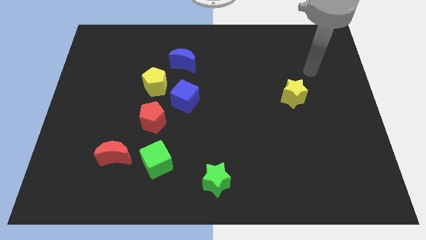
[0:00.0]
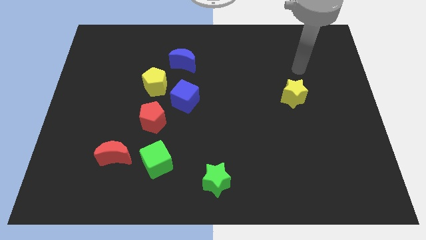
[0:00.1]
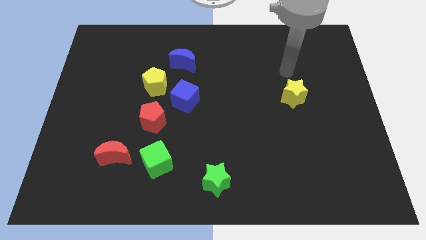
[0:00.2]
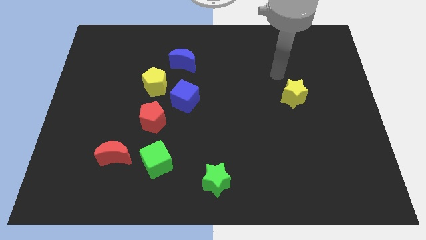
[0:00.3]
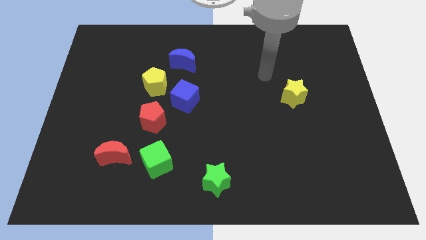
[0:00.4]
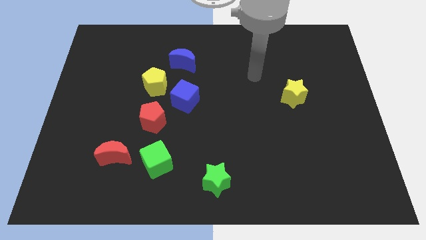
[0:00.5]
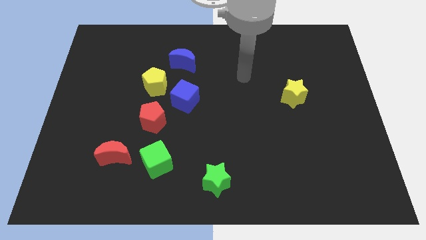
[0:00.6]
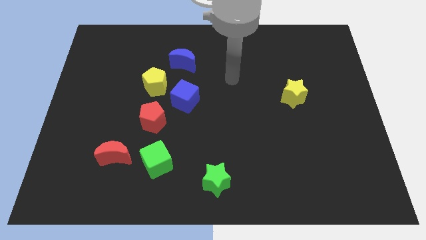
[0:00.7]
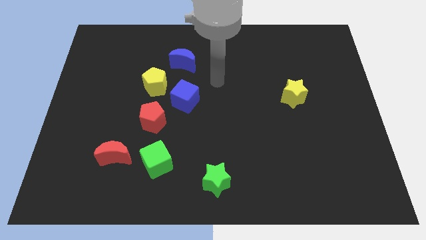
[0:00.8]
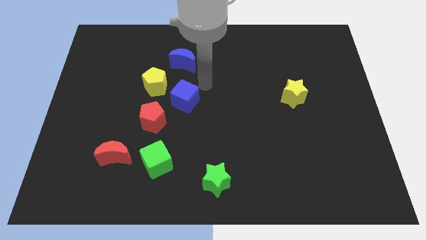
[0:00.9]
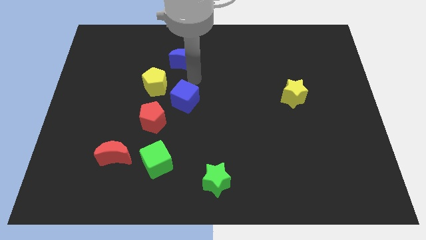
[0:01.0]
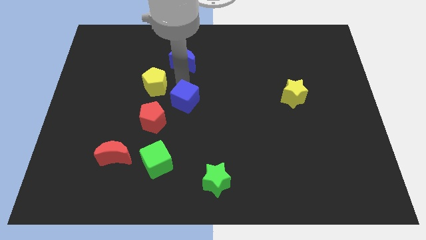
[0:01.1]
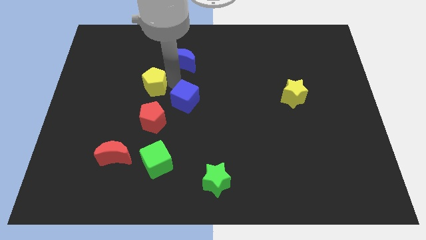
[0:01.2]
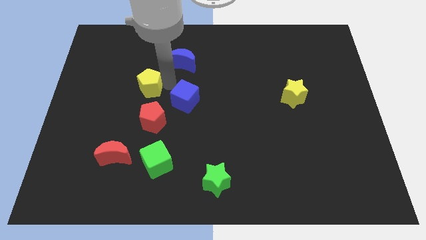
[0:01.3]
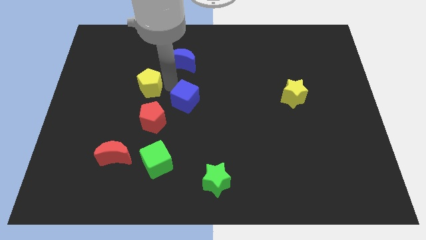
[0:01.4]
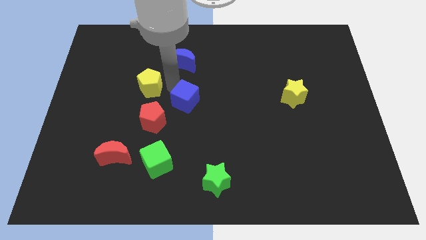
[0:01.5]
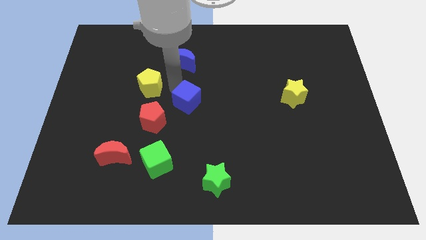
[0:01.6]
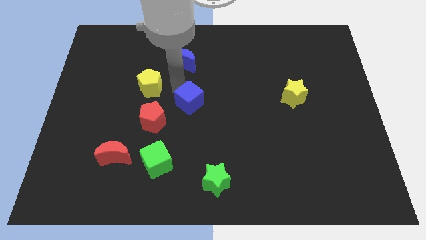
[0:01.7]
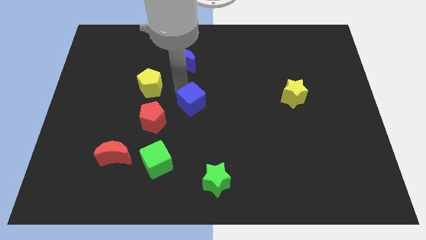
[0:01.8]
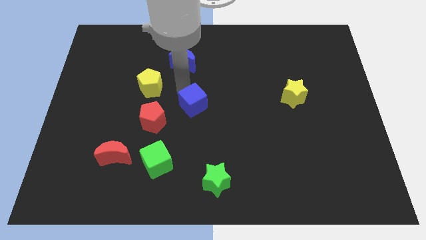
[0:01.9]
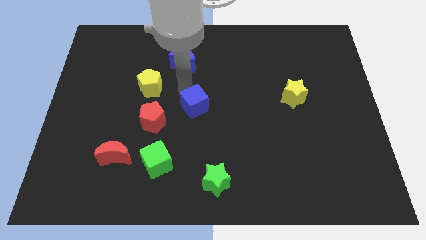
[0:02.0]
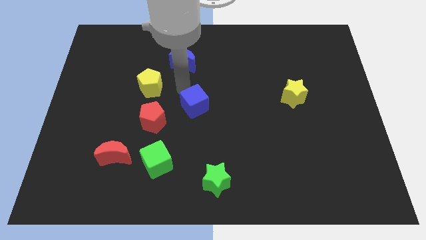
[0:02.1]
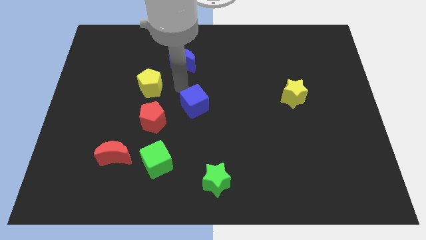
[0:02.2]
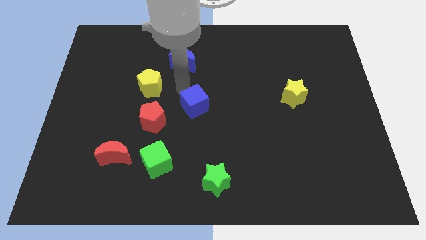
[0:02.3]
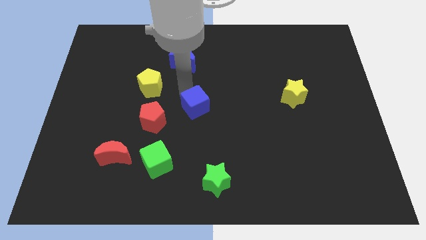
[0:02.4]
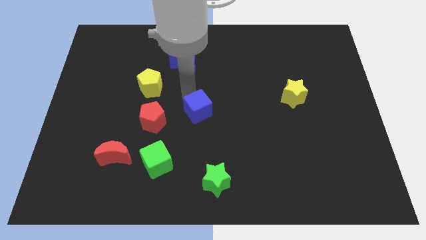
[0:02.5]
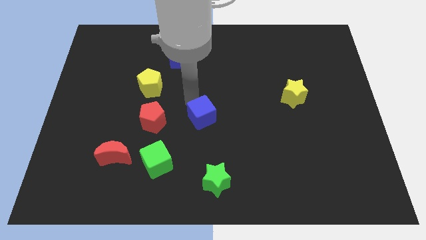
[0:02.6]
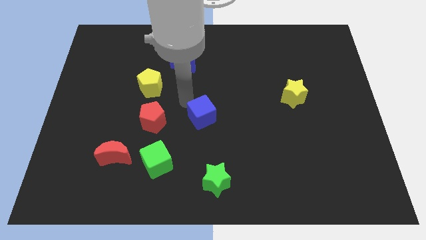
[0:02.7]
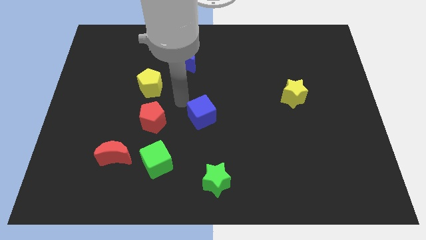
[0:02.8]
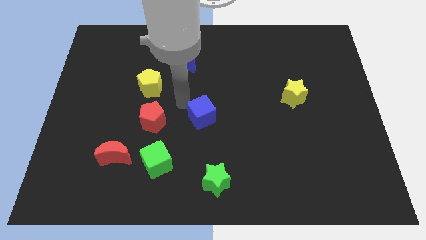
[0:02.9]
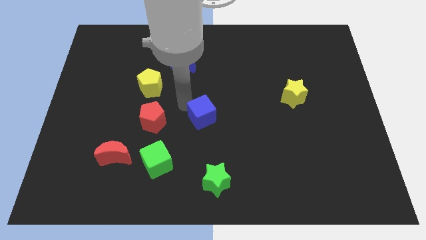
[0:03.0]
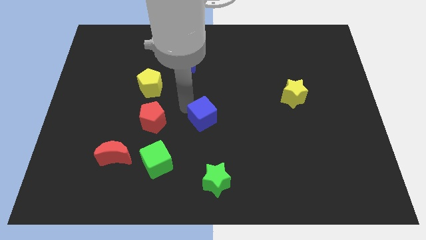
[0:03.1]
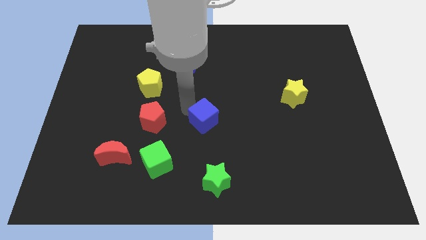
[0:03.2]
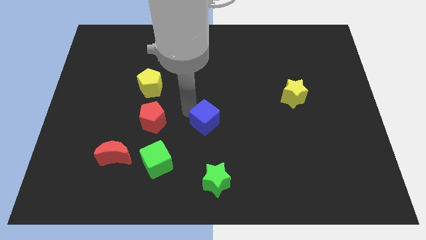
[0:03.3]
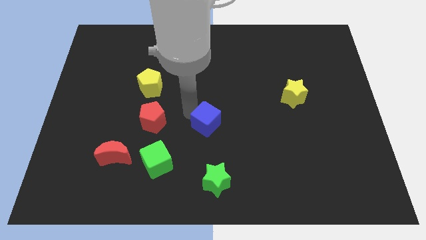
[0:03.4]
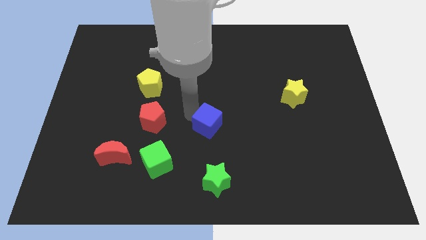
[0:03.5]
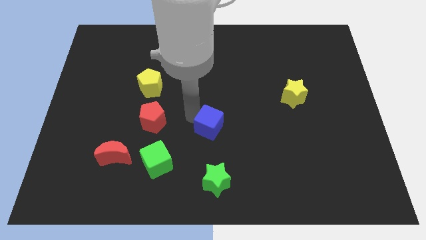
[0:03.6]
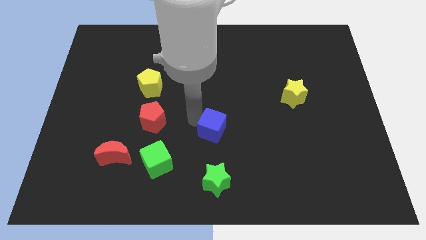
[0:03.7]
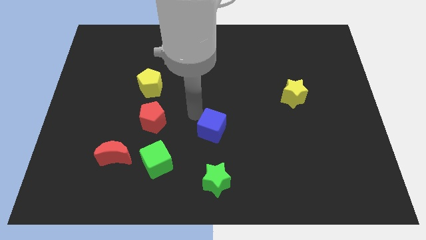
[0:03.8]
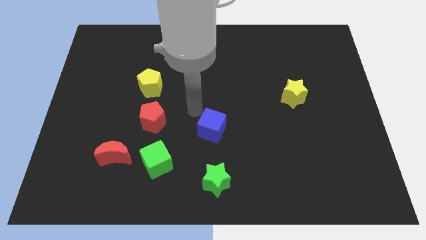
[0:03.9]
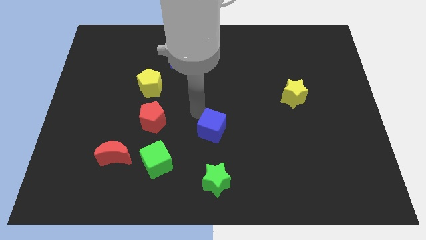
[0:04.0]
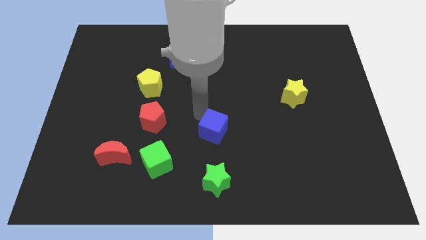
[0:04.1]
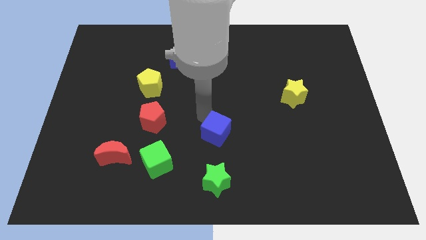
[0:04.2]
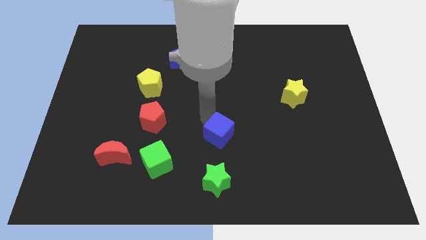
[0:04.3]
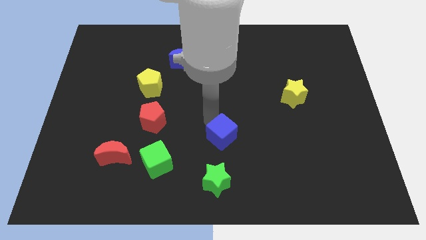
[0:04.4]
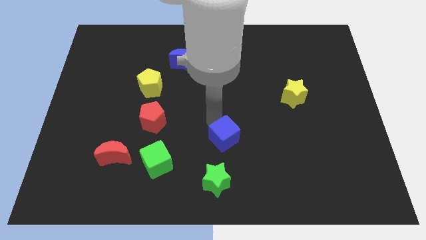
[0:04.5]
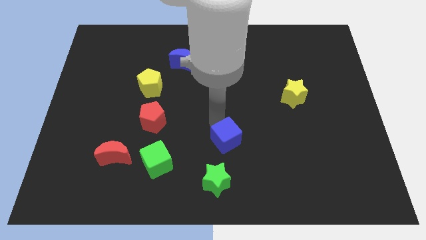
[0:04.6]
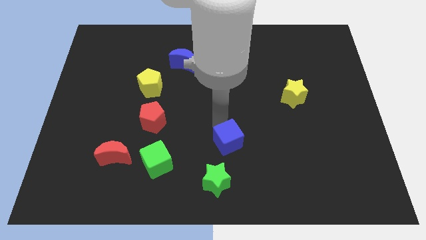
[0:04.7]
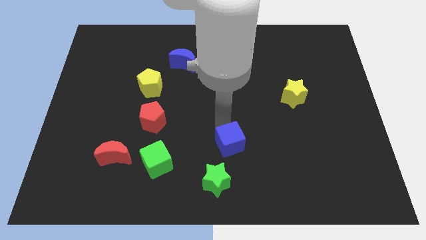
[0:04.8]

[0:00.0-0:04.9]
move the blue cube to the top right side of the green star

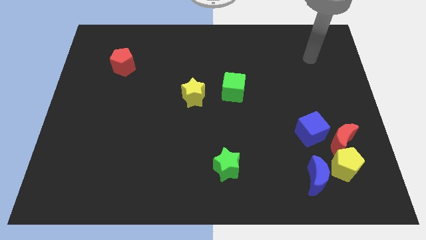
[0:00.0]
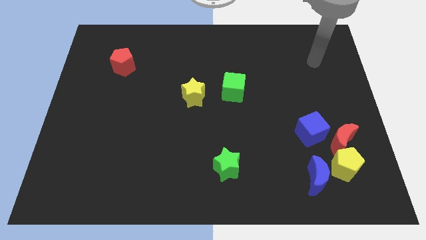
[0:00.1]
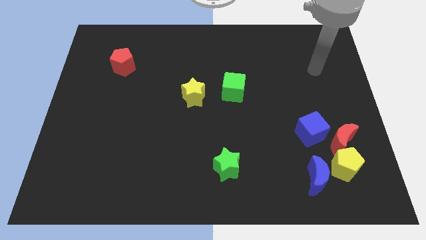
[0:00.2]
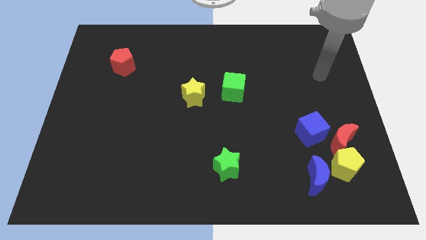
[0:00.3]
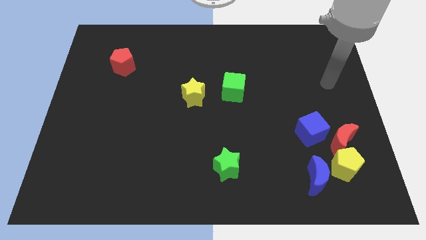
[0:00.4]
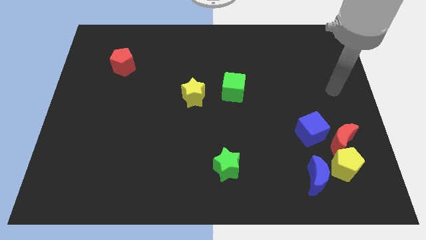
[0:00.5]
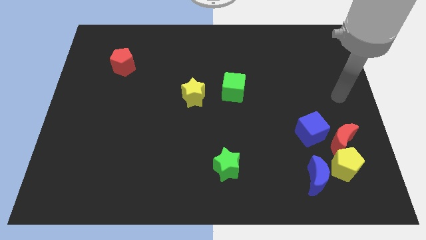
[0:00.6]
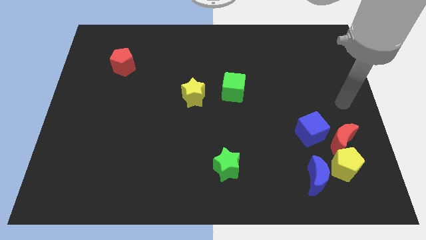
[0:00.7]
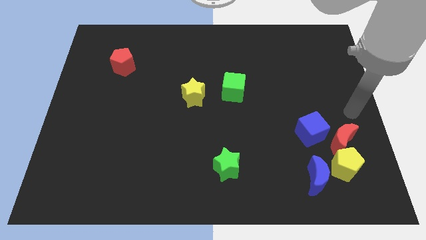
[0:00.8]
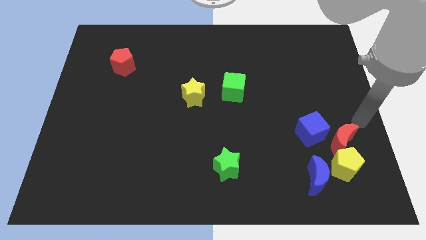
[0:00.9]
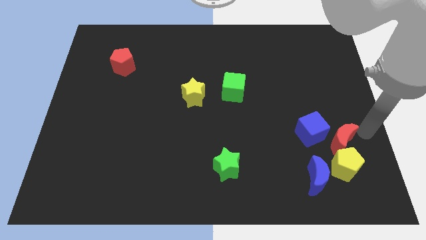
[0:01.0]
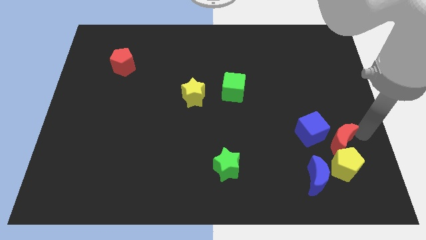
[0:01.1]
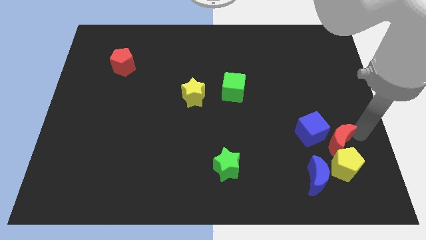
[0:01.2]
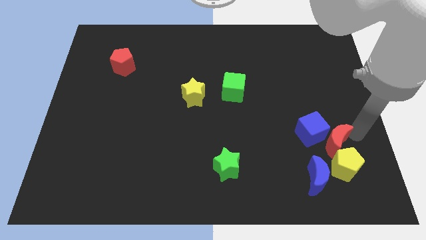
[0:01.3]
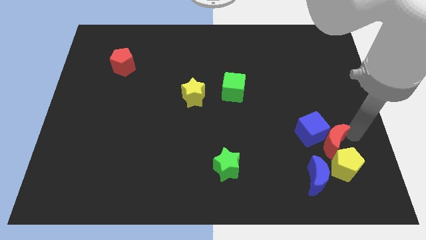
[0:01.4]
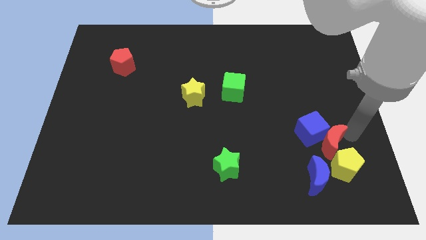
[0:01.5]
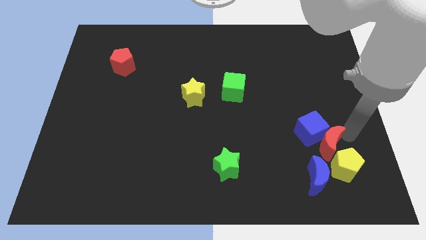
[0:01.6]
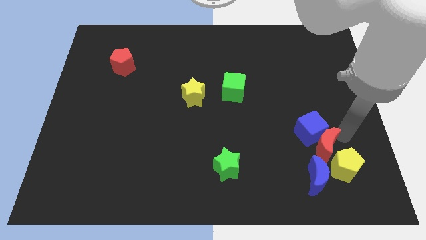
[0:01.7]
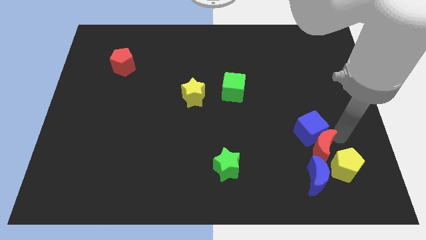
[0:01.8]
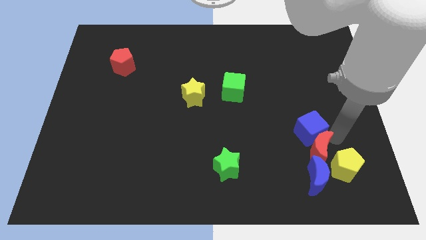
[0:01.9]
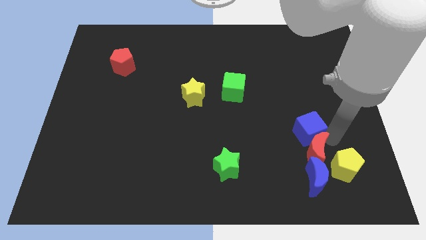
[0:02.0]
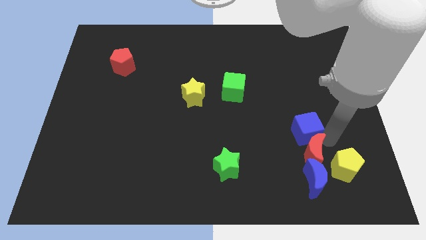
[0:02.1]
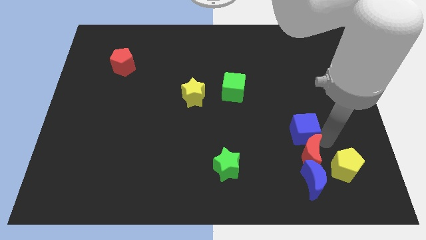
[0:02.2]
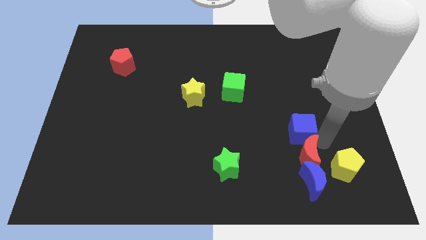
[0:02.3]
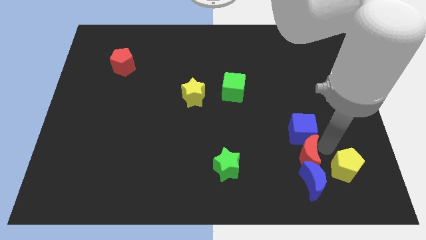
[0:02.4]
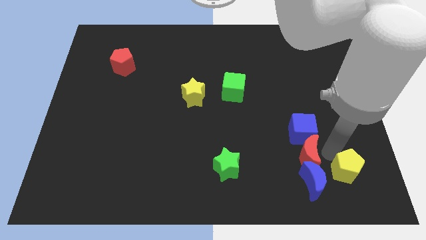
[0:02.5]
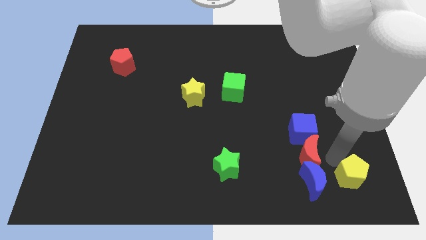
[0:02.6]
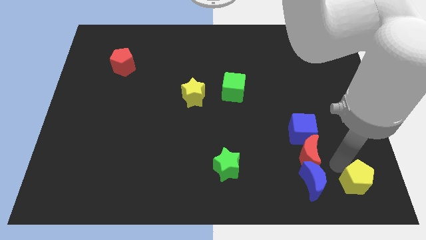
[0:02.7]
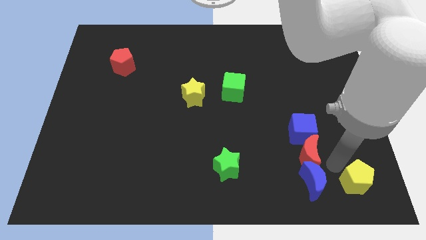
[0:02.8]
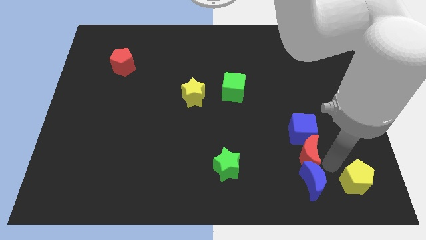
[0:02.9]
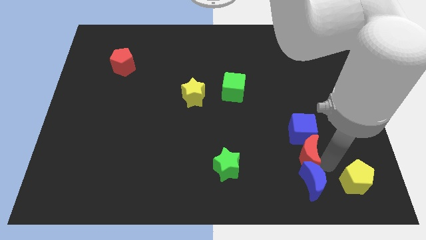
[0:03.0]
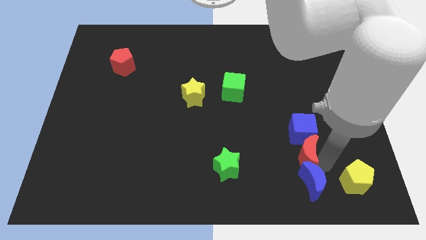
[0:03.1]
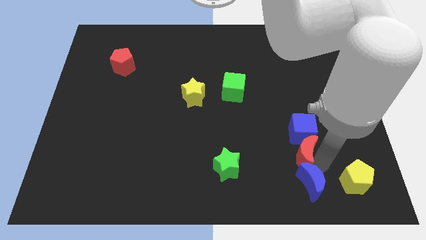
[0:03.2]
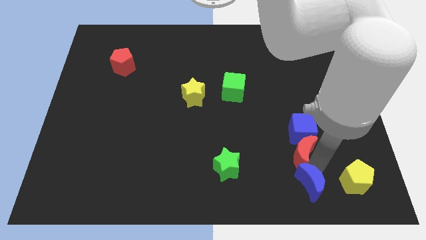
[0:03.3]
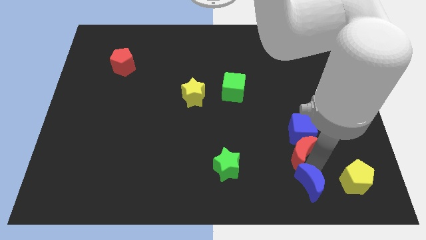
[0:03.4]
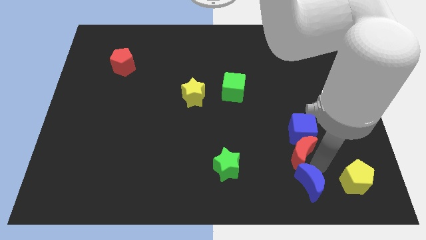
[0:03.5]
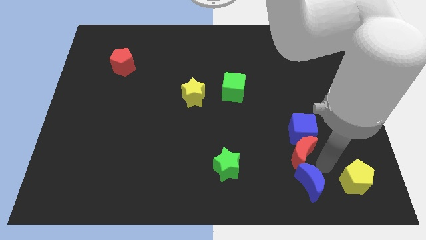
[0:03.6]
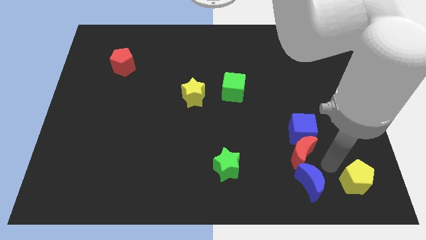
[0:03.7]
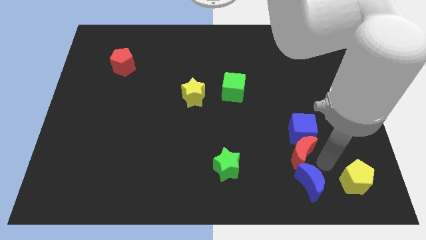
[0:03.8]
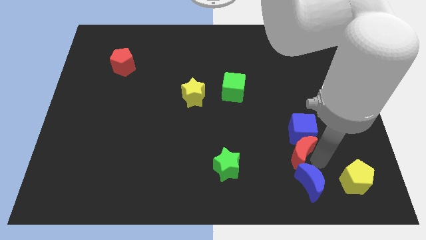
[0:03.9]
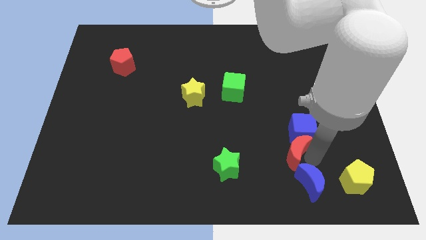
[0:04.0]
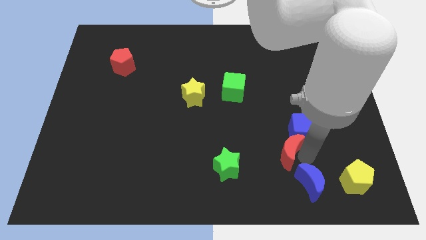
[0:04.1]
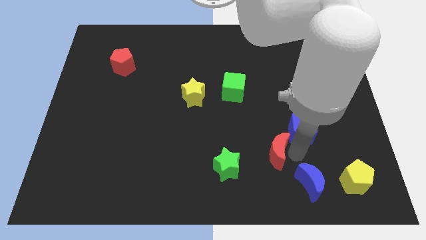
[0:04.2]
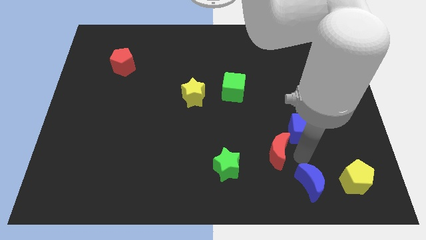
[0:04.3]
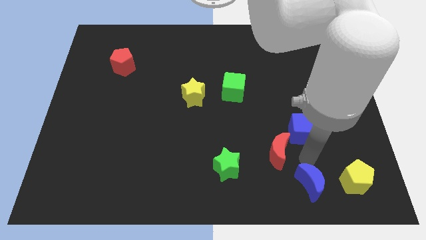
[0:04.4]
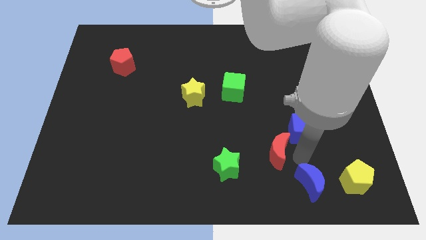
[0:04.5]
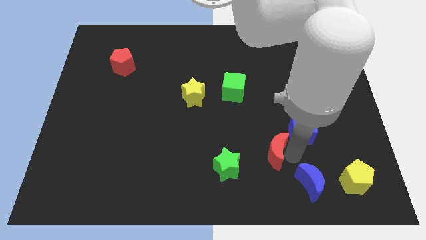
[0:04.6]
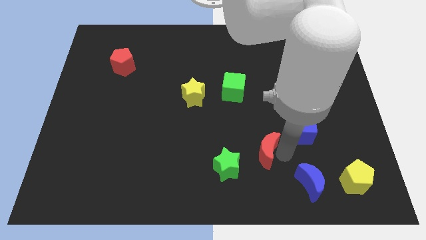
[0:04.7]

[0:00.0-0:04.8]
put the red moon to the top right side of the green star
